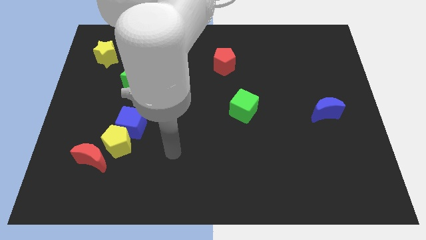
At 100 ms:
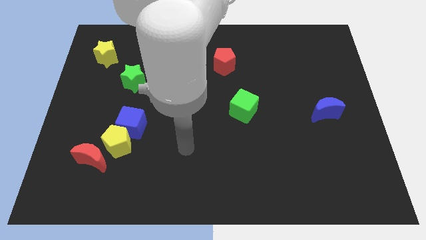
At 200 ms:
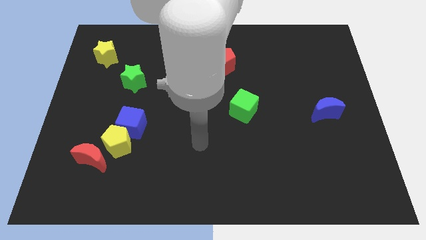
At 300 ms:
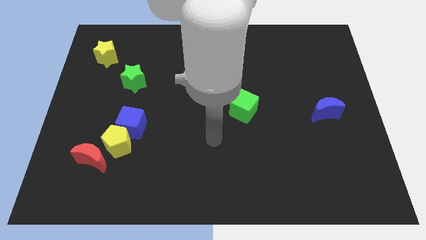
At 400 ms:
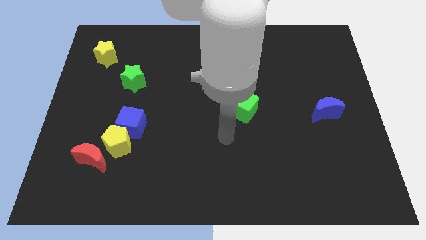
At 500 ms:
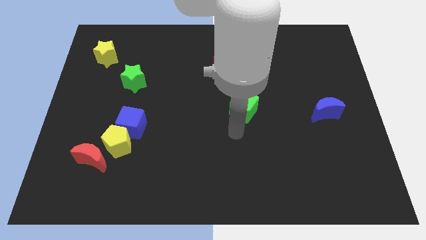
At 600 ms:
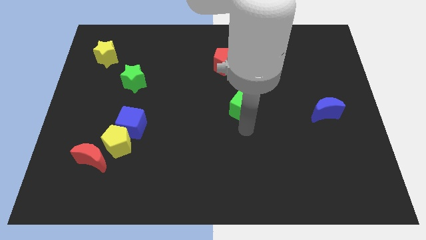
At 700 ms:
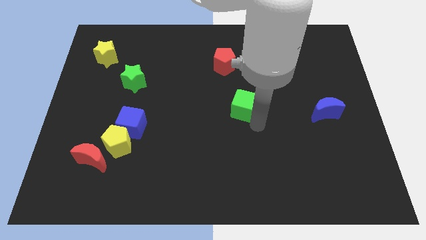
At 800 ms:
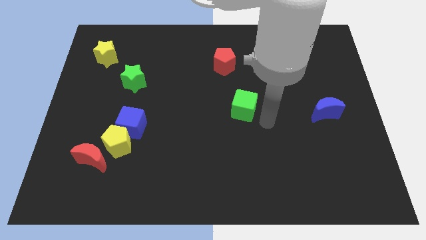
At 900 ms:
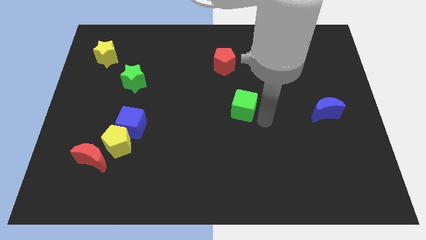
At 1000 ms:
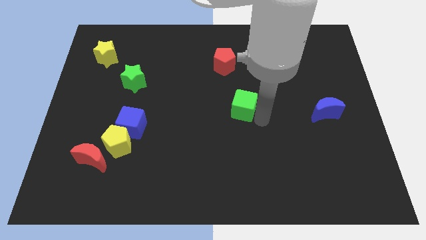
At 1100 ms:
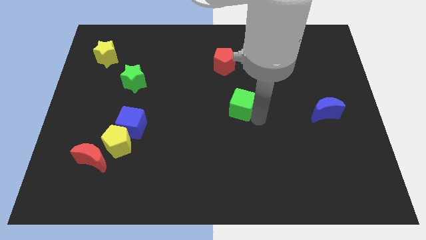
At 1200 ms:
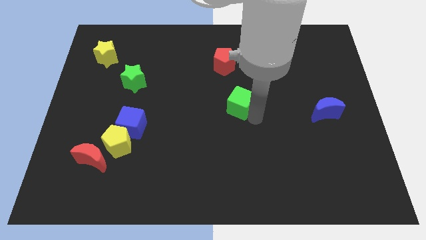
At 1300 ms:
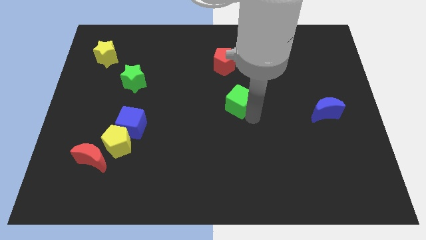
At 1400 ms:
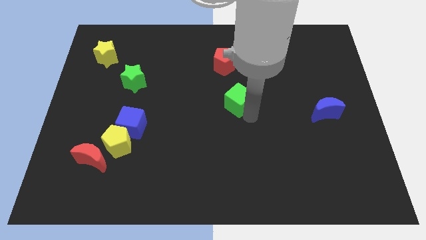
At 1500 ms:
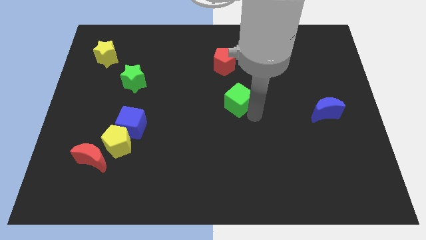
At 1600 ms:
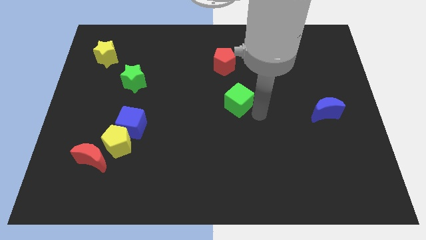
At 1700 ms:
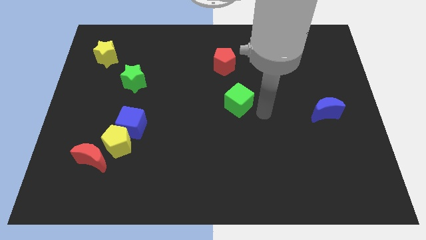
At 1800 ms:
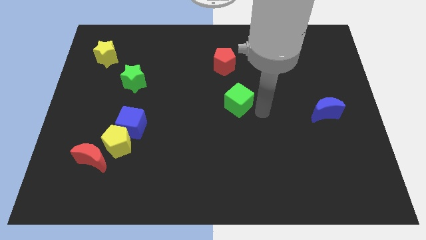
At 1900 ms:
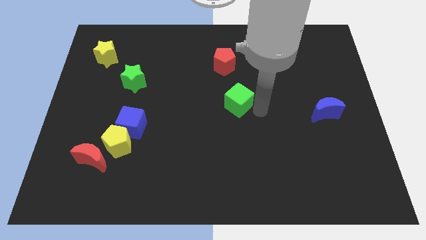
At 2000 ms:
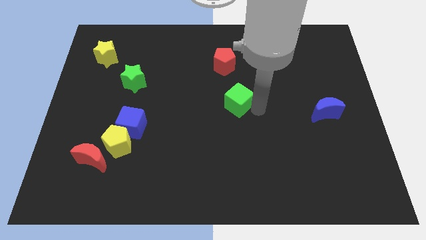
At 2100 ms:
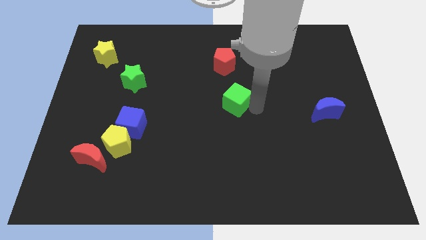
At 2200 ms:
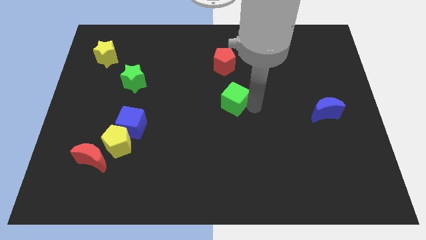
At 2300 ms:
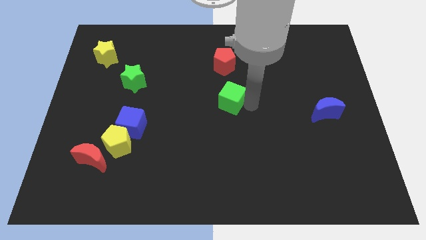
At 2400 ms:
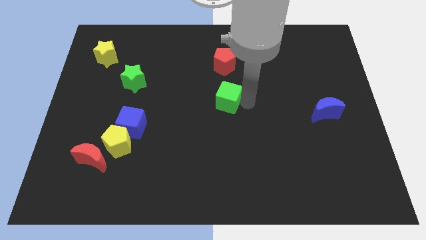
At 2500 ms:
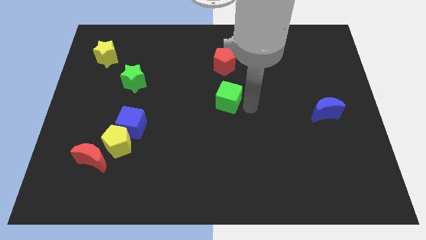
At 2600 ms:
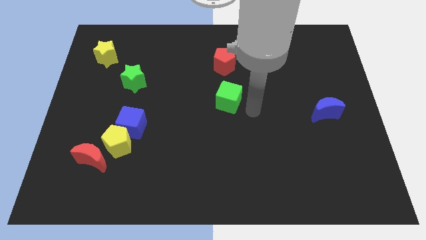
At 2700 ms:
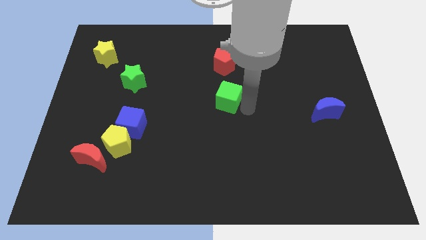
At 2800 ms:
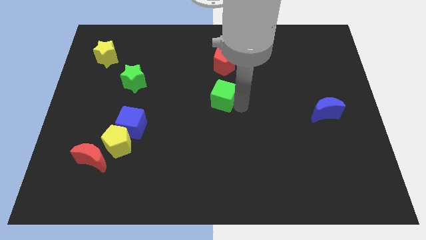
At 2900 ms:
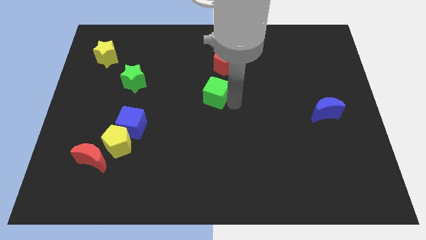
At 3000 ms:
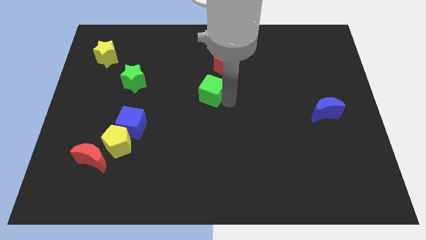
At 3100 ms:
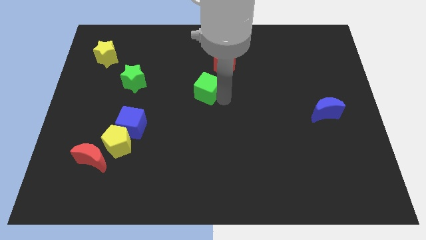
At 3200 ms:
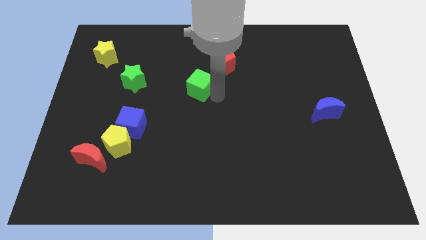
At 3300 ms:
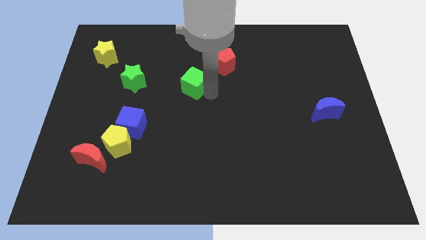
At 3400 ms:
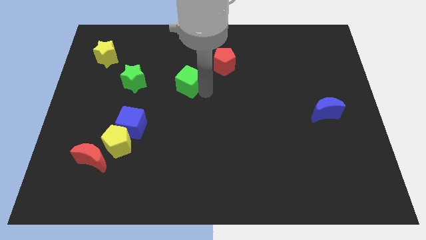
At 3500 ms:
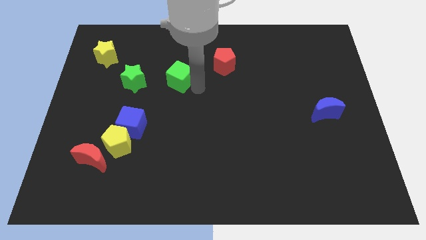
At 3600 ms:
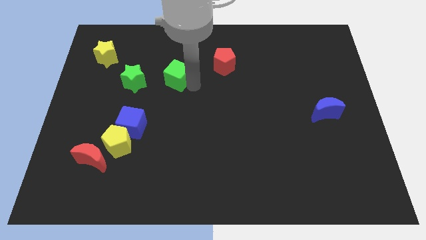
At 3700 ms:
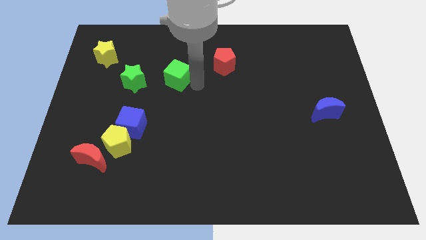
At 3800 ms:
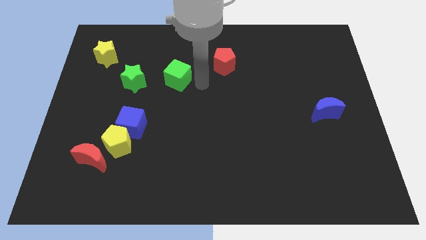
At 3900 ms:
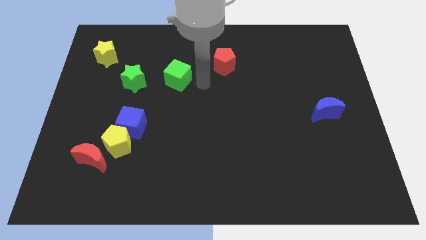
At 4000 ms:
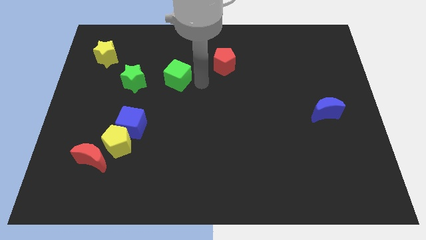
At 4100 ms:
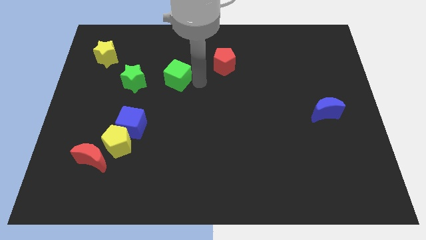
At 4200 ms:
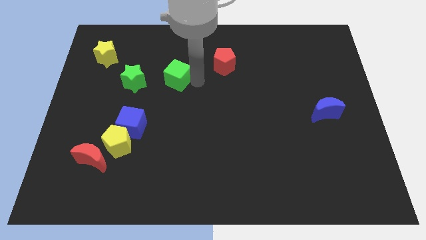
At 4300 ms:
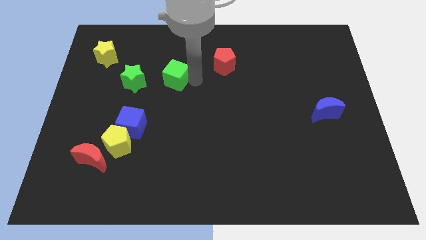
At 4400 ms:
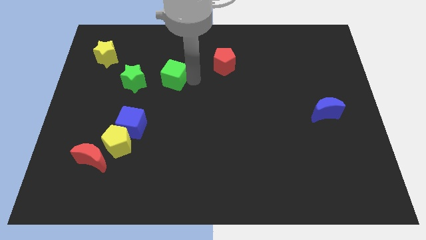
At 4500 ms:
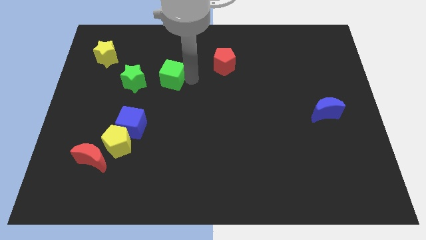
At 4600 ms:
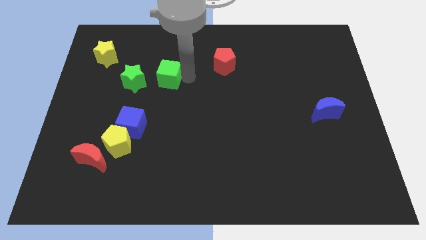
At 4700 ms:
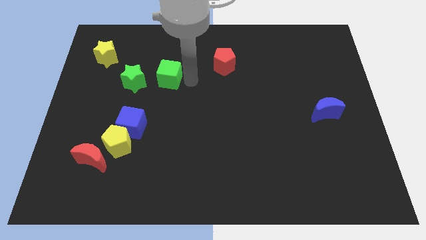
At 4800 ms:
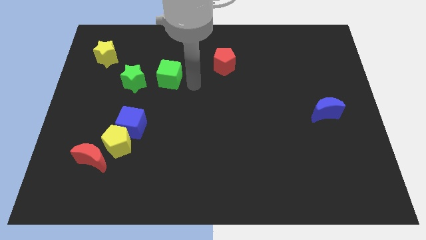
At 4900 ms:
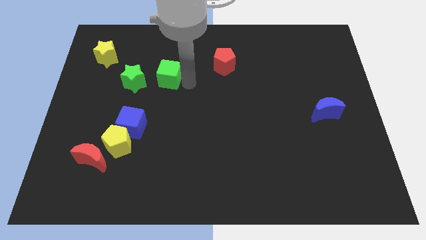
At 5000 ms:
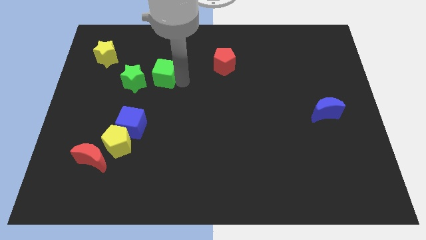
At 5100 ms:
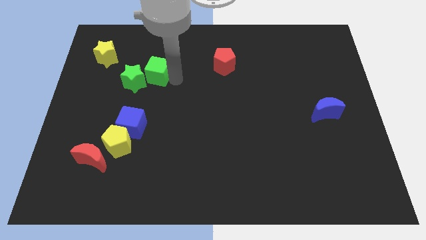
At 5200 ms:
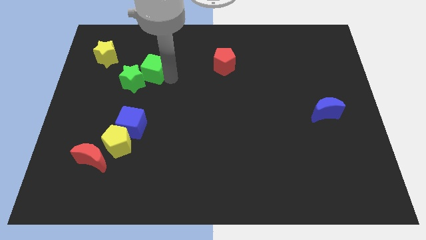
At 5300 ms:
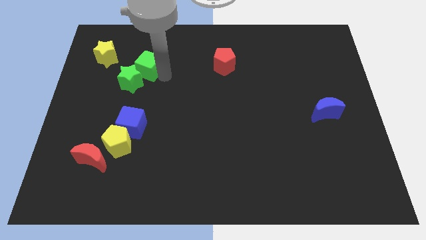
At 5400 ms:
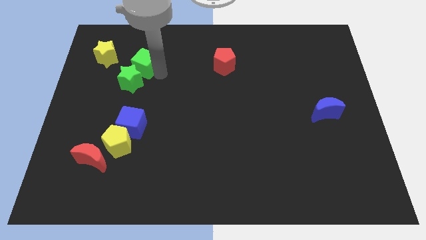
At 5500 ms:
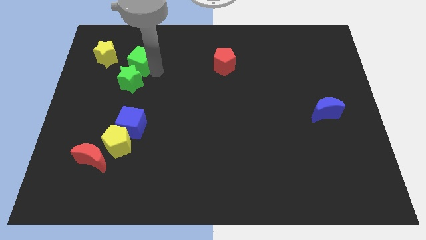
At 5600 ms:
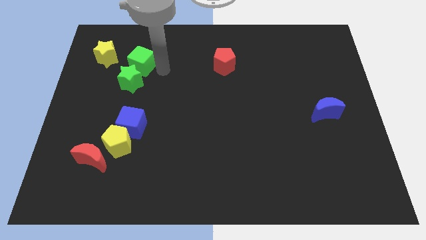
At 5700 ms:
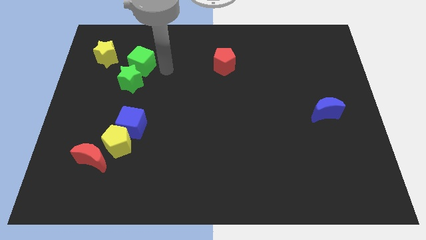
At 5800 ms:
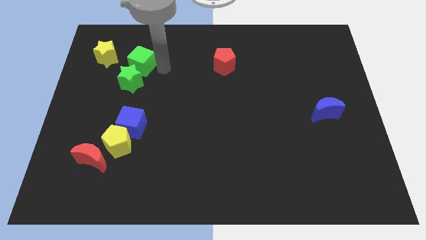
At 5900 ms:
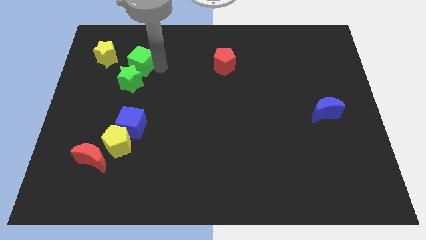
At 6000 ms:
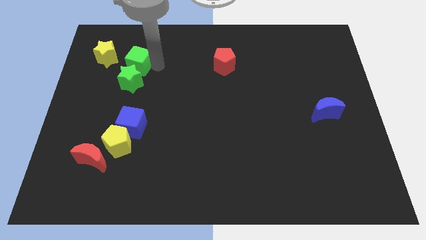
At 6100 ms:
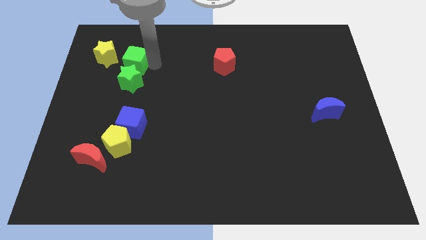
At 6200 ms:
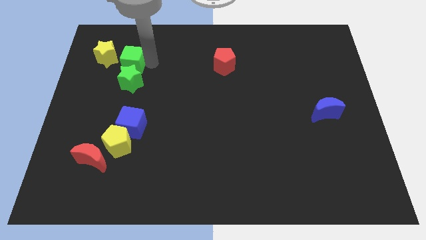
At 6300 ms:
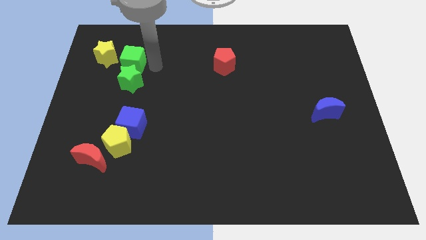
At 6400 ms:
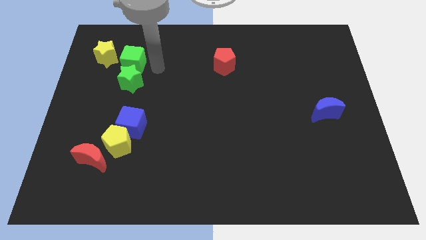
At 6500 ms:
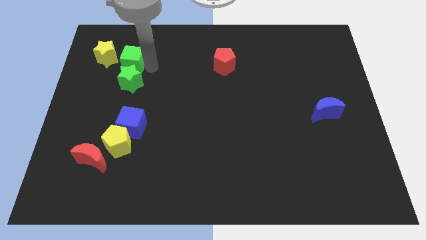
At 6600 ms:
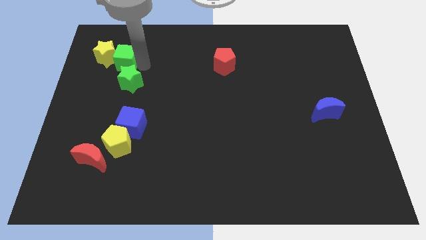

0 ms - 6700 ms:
move the green cube to the yellow star
